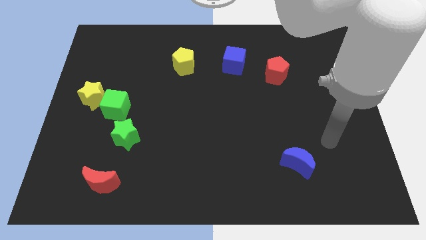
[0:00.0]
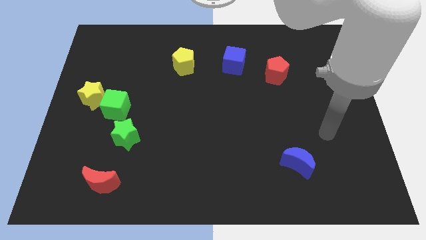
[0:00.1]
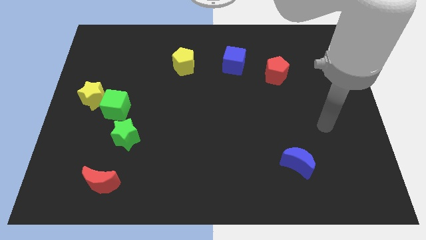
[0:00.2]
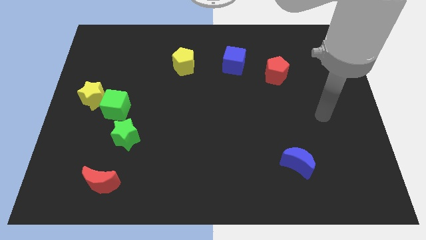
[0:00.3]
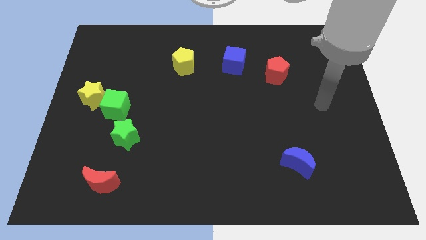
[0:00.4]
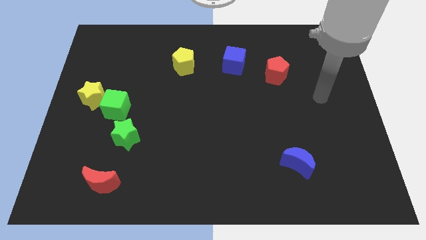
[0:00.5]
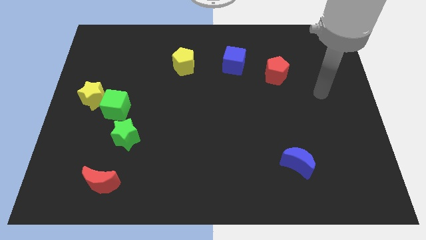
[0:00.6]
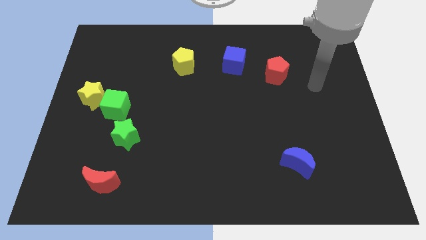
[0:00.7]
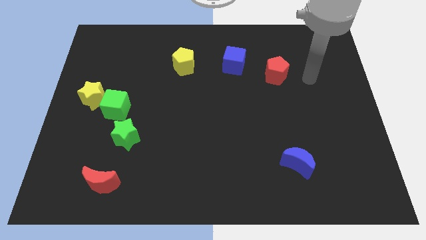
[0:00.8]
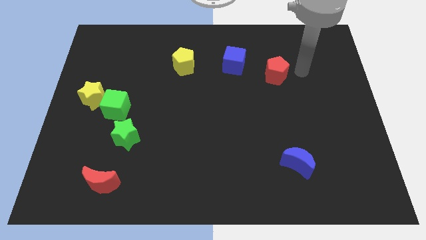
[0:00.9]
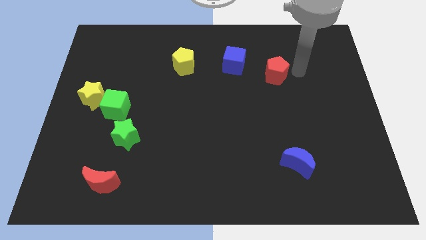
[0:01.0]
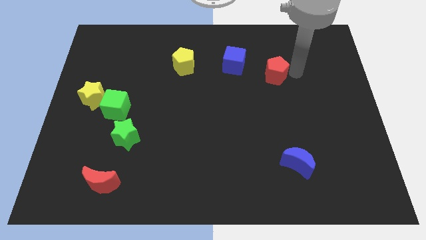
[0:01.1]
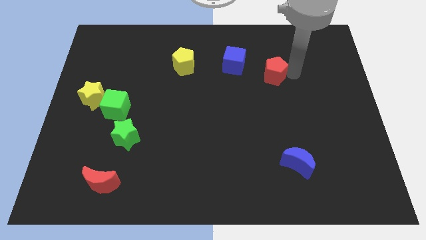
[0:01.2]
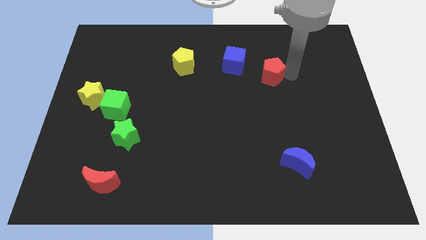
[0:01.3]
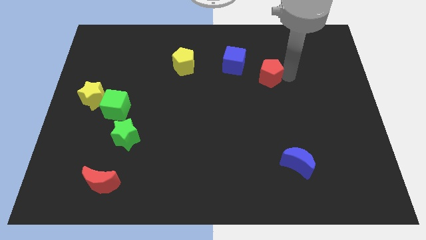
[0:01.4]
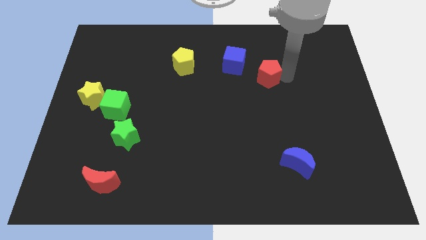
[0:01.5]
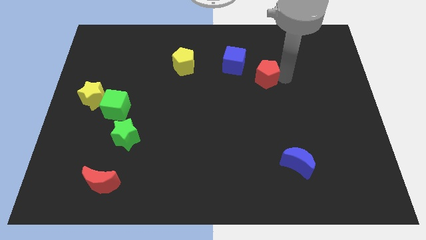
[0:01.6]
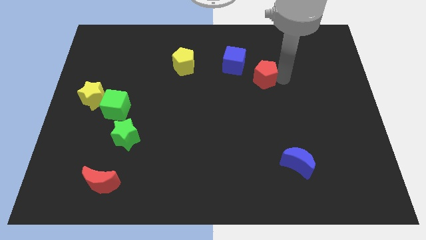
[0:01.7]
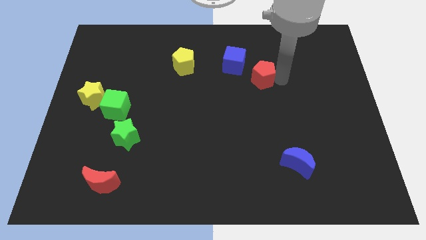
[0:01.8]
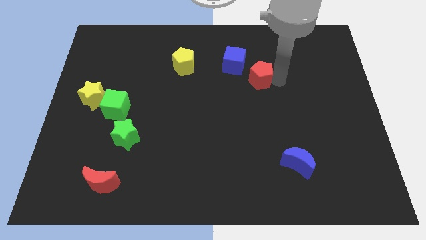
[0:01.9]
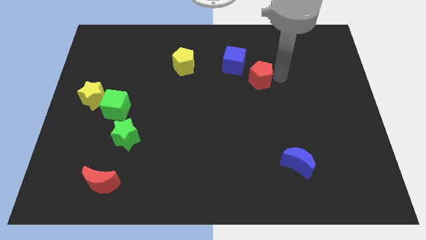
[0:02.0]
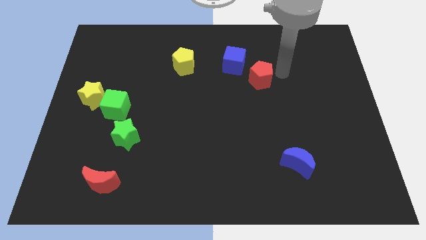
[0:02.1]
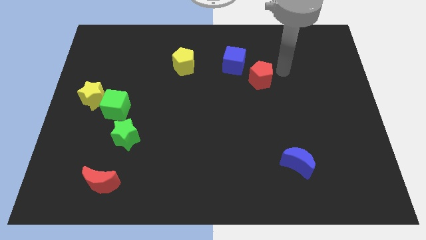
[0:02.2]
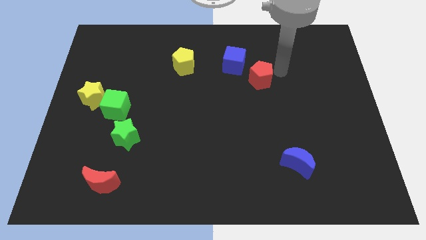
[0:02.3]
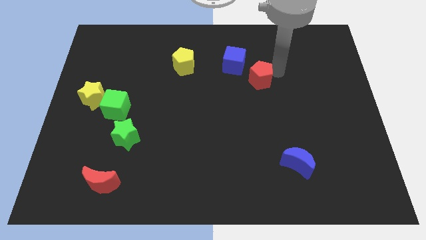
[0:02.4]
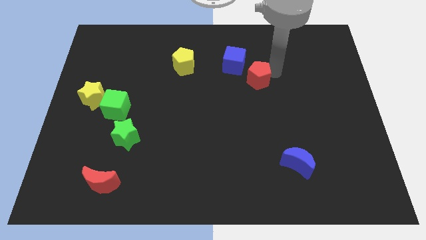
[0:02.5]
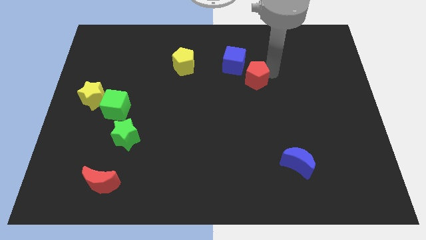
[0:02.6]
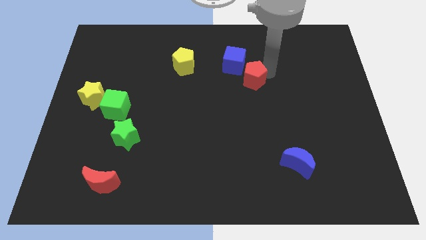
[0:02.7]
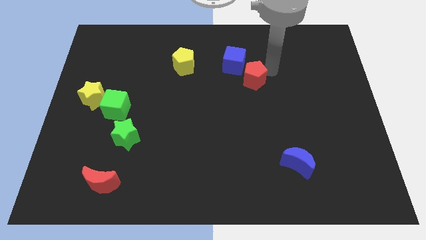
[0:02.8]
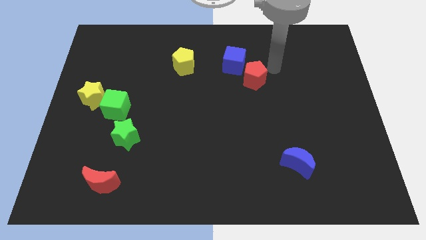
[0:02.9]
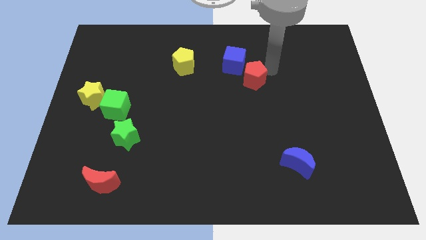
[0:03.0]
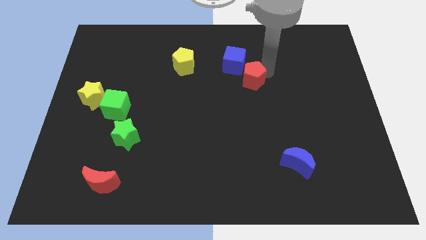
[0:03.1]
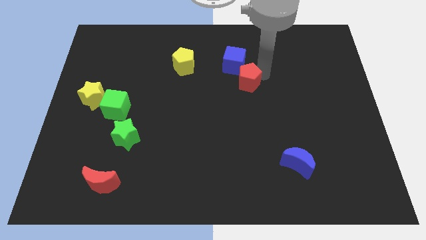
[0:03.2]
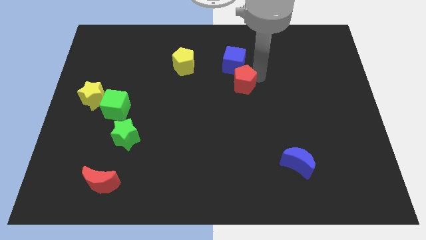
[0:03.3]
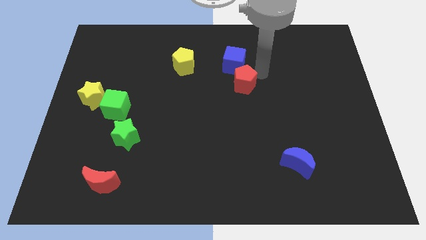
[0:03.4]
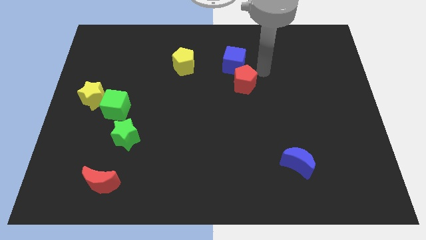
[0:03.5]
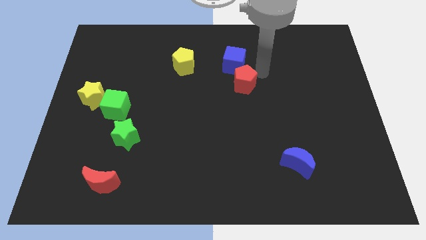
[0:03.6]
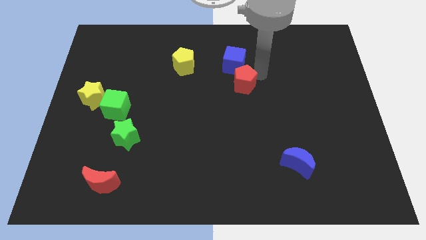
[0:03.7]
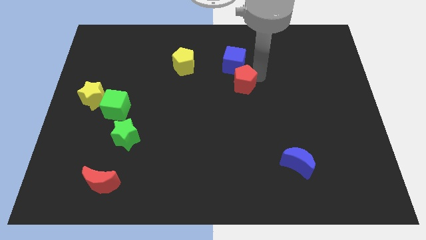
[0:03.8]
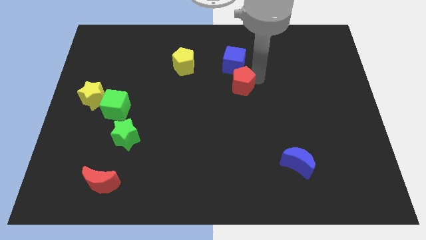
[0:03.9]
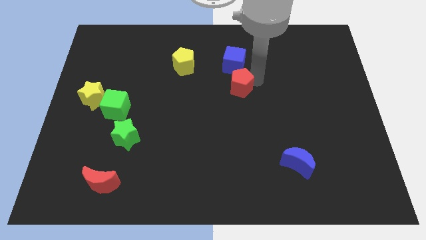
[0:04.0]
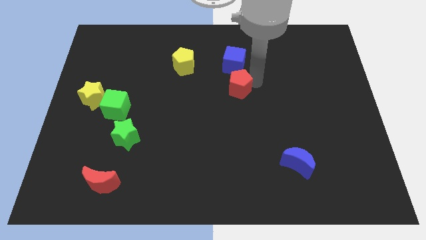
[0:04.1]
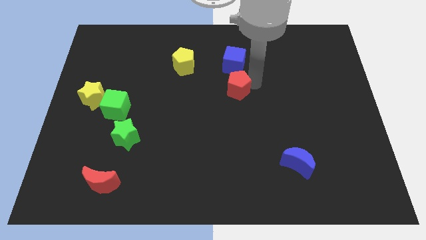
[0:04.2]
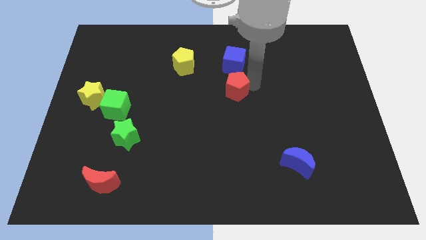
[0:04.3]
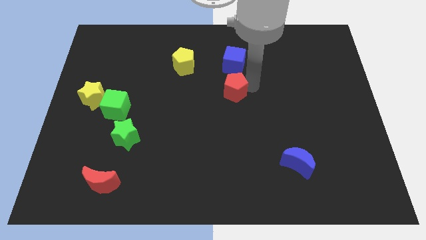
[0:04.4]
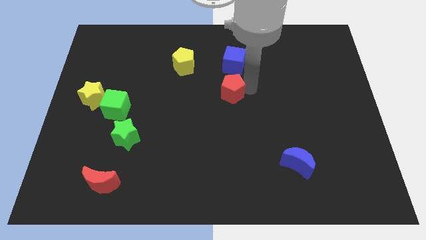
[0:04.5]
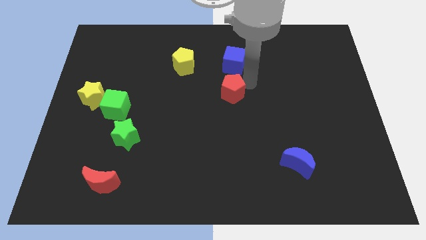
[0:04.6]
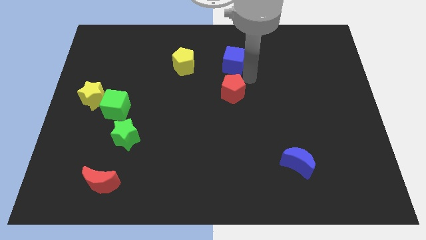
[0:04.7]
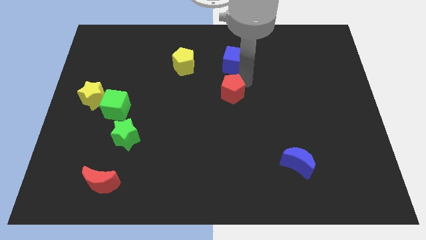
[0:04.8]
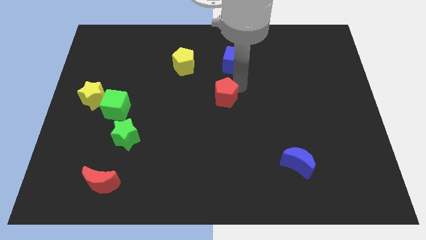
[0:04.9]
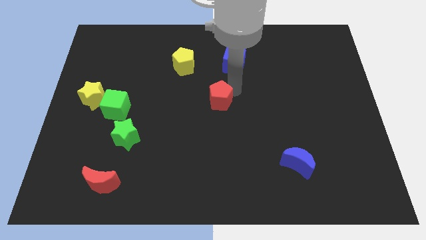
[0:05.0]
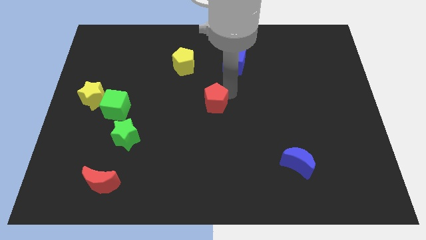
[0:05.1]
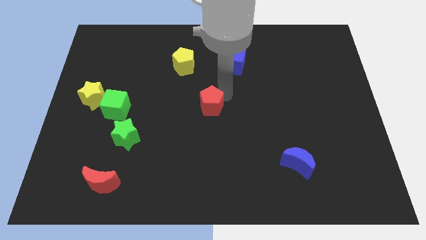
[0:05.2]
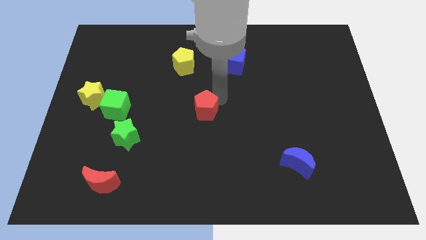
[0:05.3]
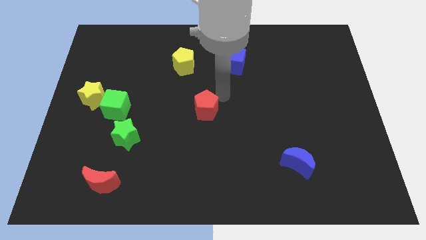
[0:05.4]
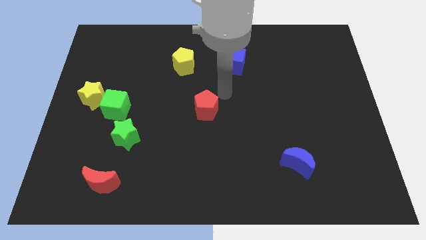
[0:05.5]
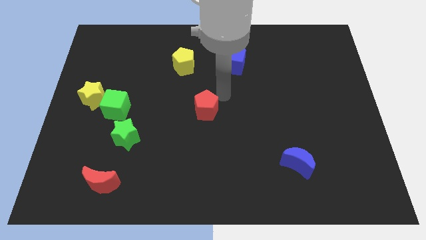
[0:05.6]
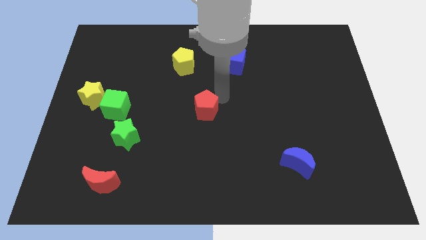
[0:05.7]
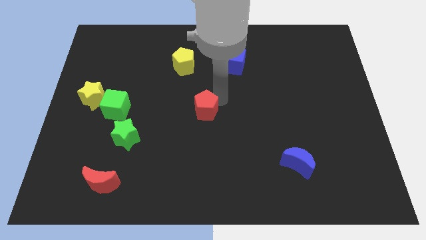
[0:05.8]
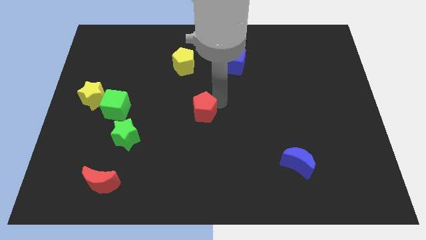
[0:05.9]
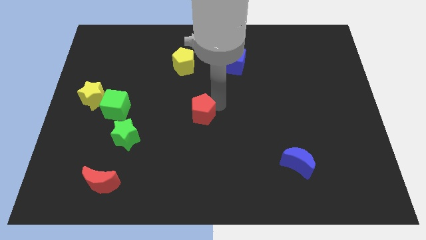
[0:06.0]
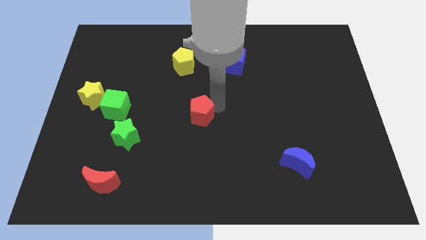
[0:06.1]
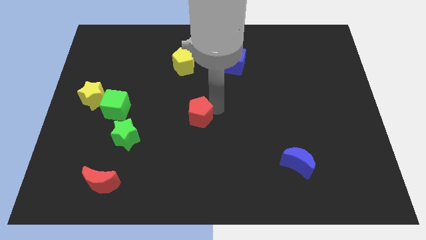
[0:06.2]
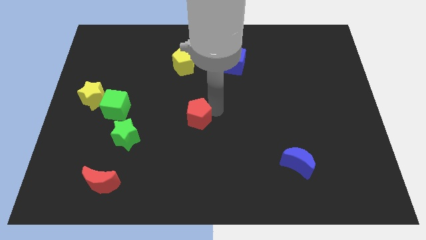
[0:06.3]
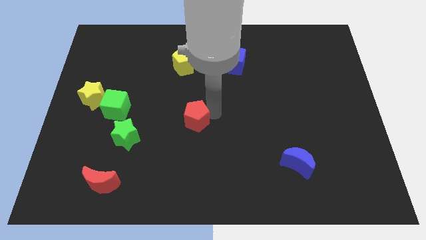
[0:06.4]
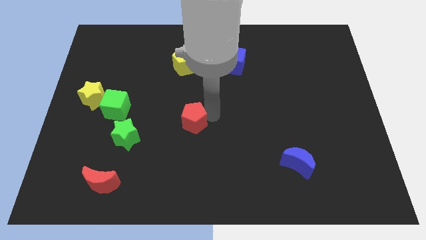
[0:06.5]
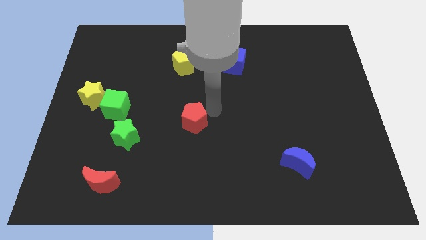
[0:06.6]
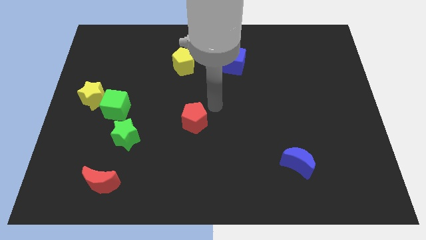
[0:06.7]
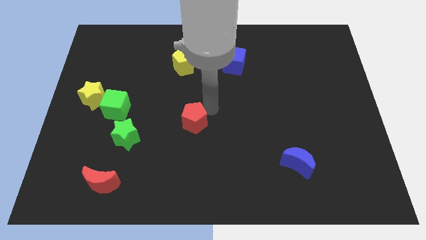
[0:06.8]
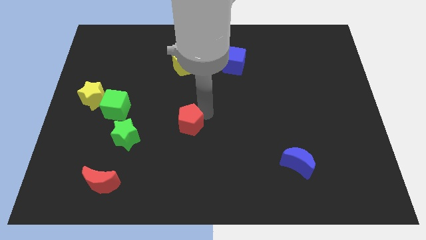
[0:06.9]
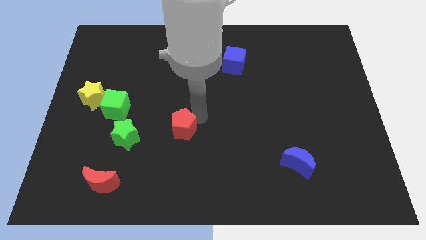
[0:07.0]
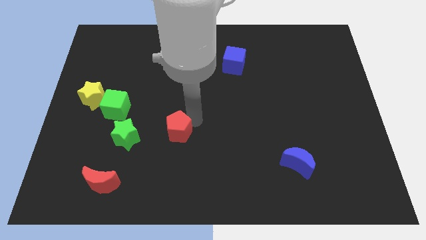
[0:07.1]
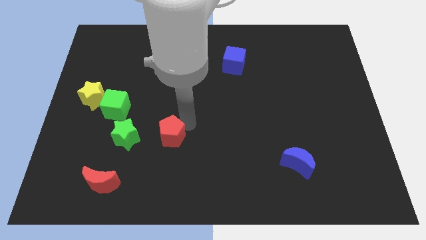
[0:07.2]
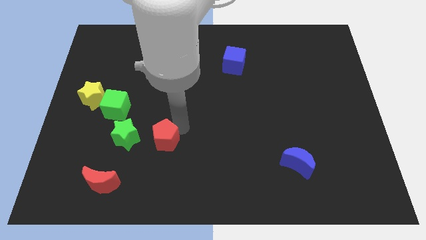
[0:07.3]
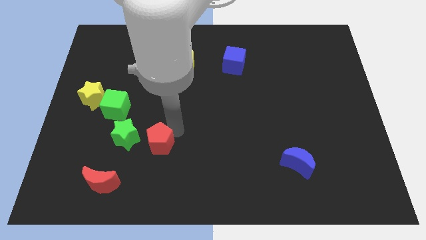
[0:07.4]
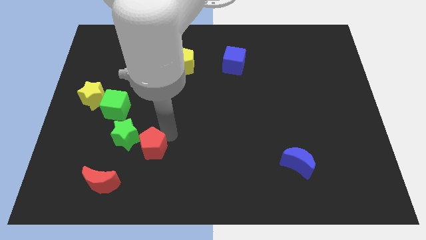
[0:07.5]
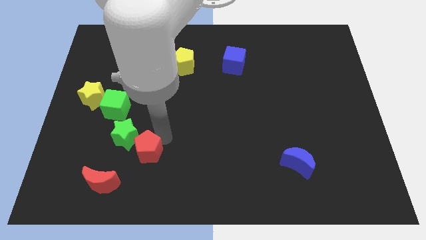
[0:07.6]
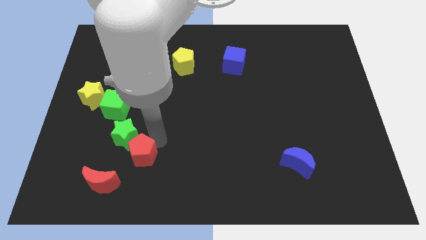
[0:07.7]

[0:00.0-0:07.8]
put the red pentagon to the bottom side of the green star
